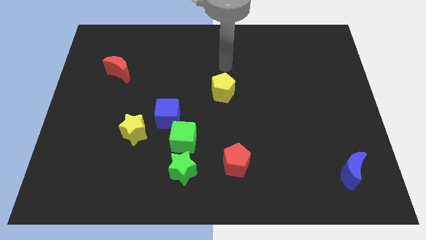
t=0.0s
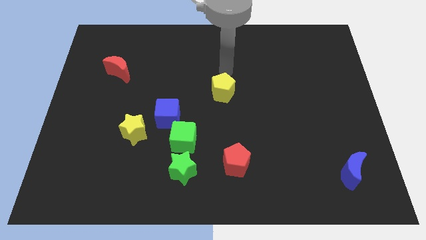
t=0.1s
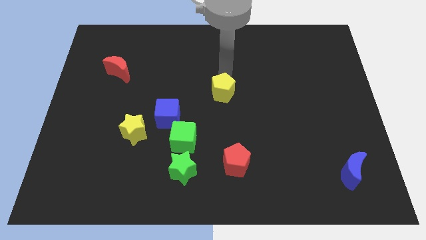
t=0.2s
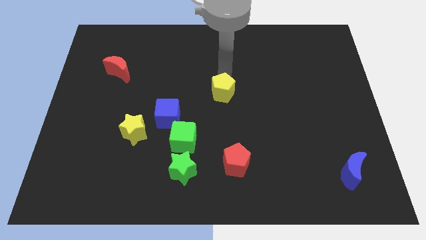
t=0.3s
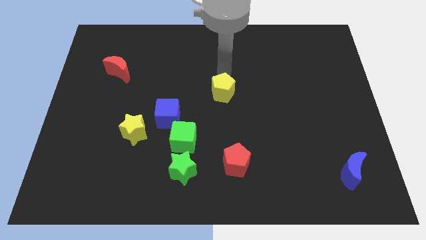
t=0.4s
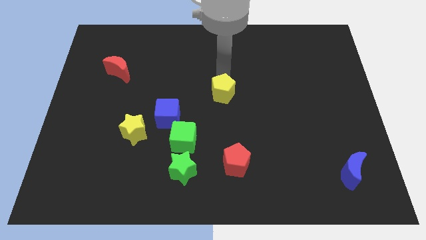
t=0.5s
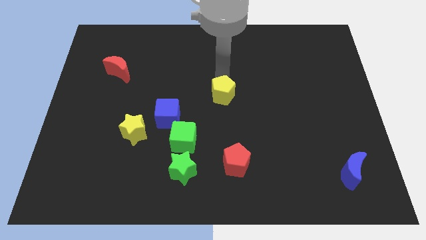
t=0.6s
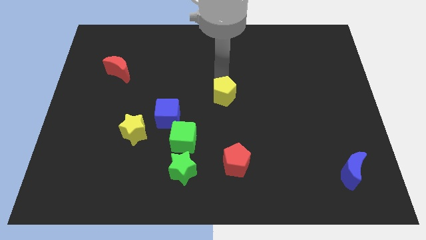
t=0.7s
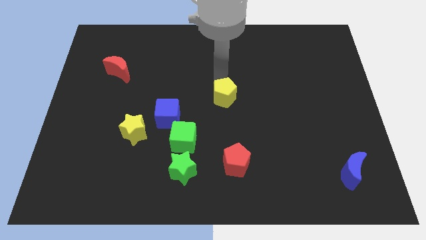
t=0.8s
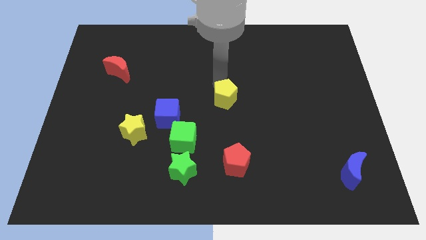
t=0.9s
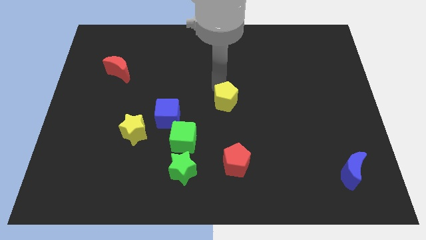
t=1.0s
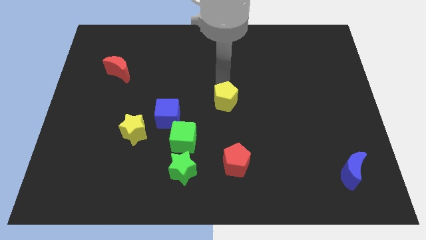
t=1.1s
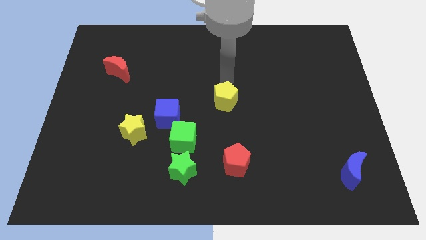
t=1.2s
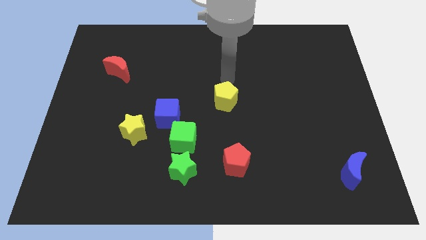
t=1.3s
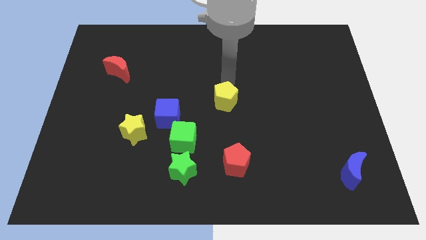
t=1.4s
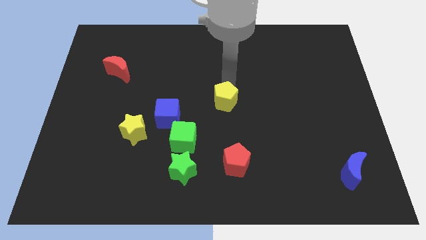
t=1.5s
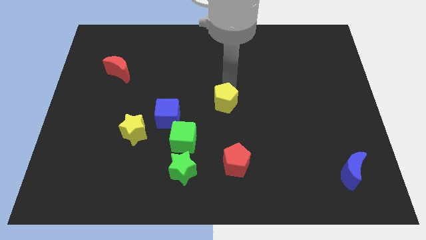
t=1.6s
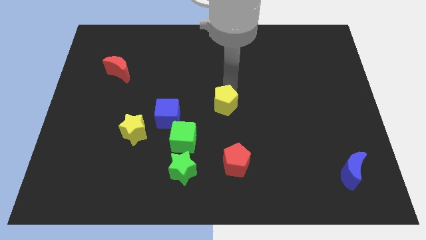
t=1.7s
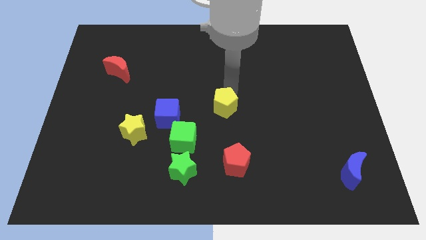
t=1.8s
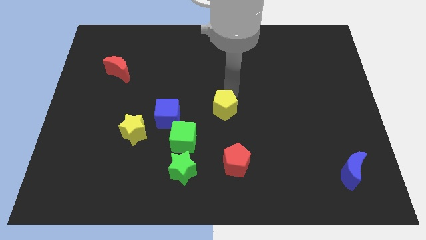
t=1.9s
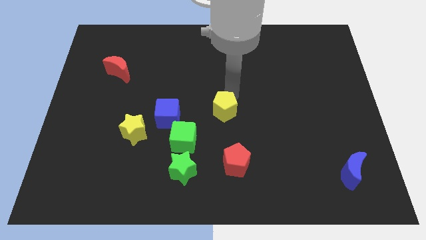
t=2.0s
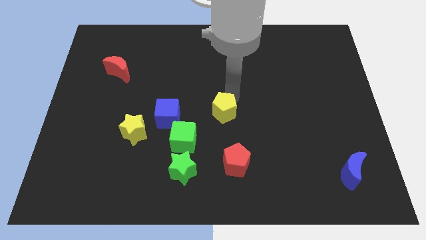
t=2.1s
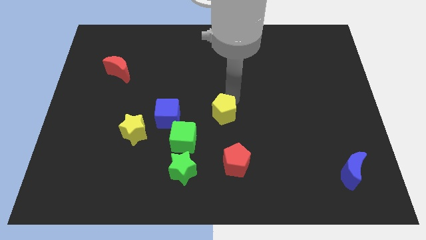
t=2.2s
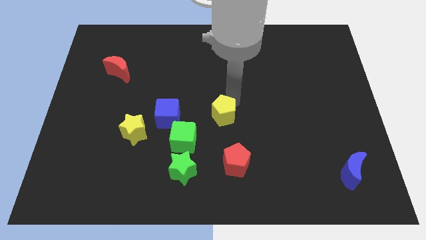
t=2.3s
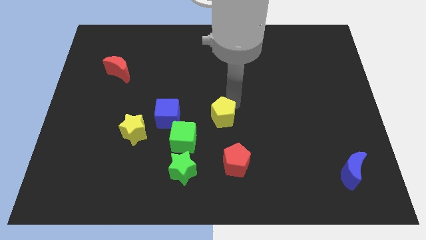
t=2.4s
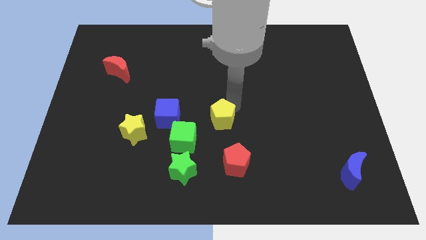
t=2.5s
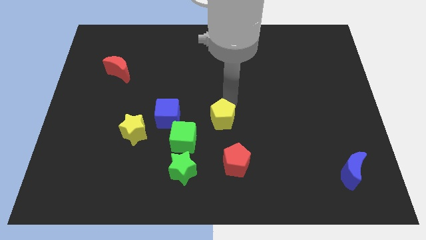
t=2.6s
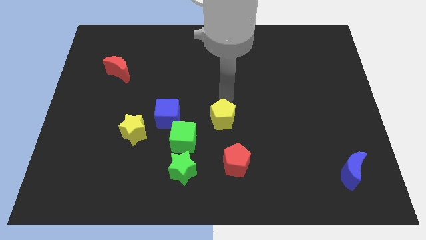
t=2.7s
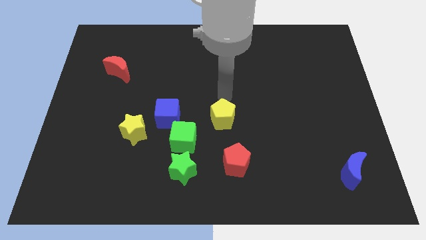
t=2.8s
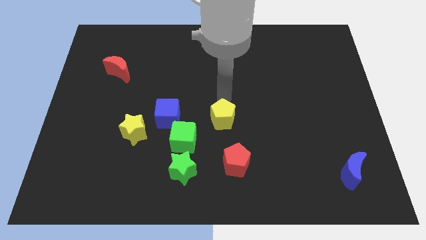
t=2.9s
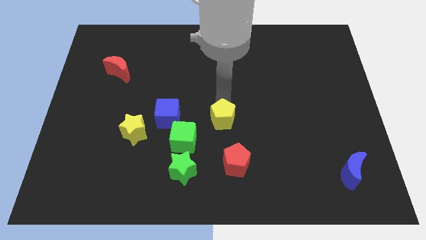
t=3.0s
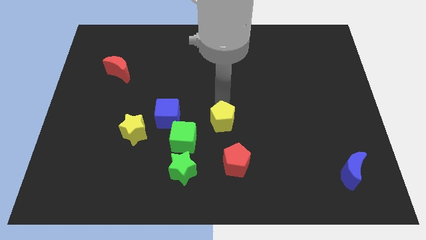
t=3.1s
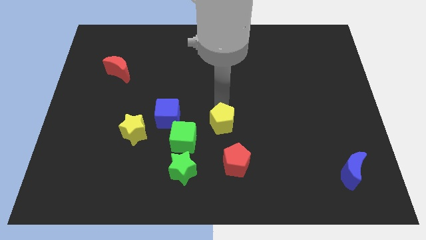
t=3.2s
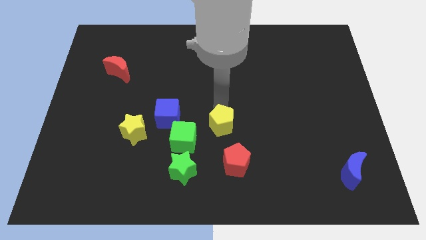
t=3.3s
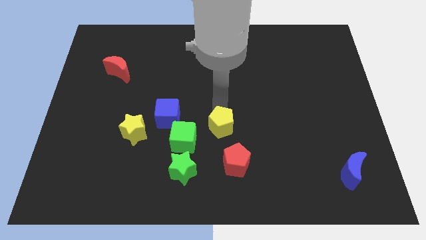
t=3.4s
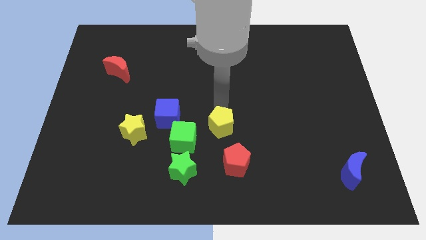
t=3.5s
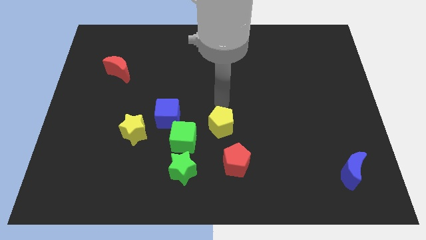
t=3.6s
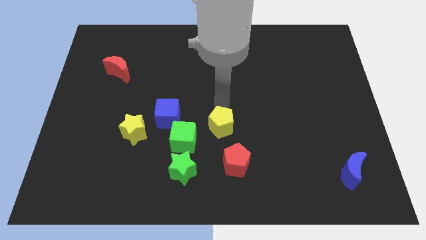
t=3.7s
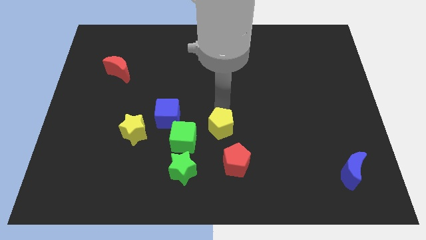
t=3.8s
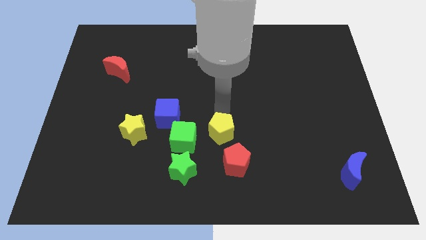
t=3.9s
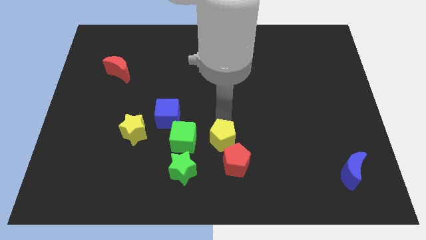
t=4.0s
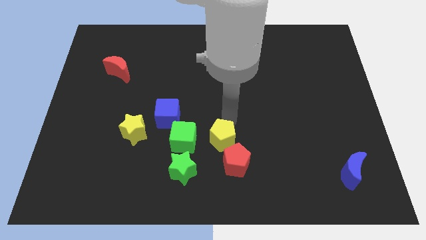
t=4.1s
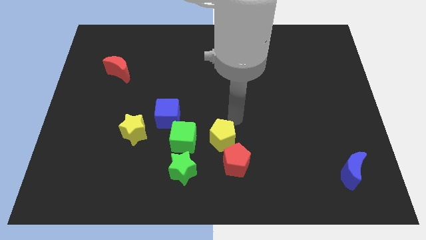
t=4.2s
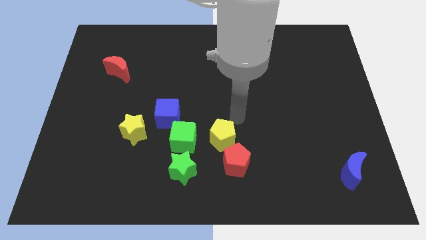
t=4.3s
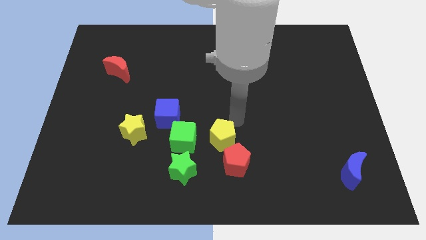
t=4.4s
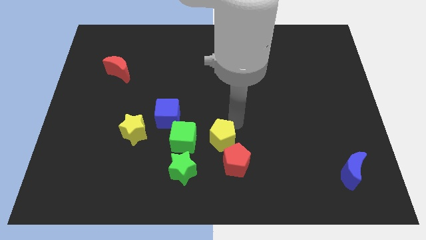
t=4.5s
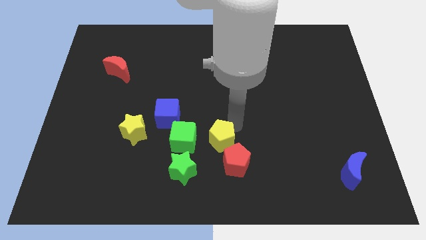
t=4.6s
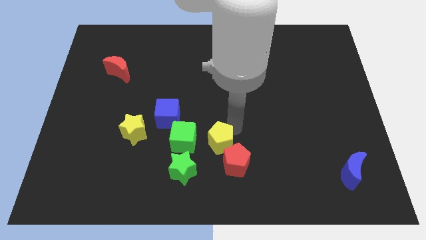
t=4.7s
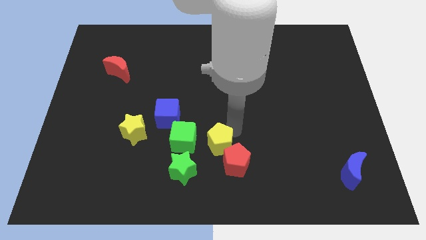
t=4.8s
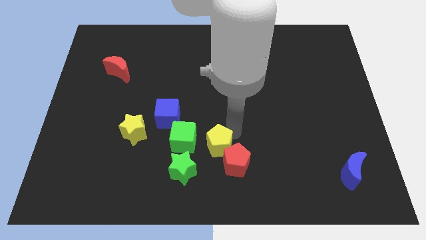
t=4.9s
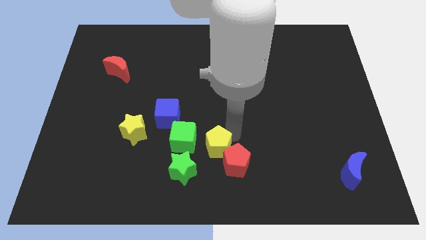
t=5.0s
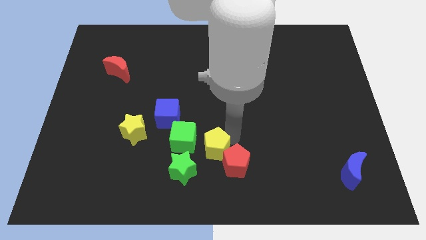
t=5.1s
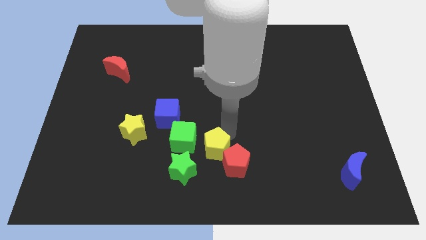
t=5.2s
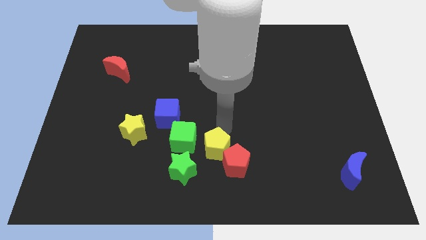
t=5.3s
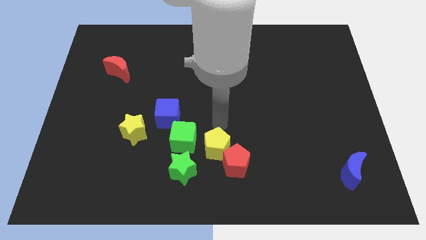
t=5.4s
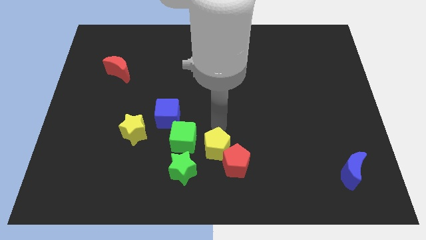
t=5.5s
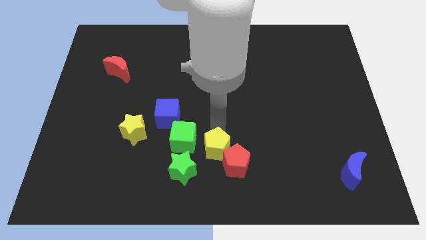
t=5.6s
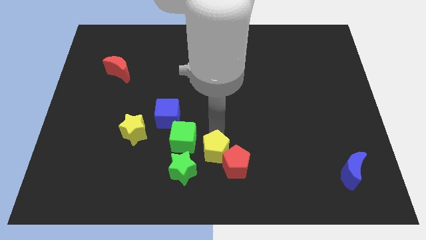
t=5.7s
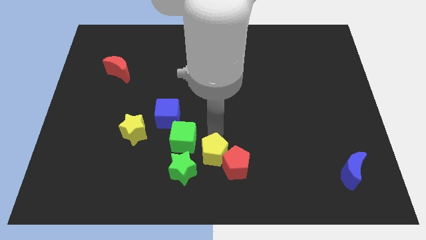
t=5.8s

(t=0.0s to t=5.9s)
push the yellow pentagon to the bottom
